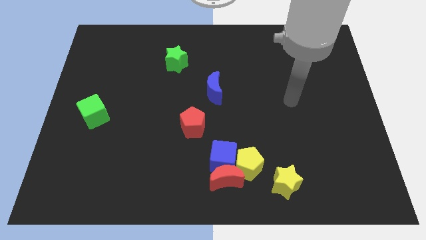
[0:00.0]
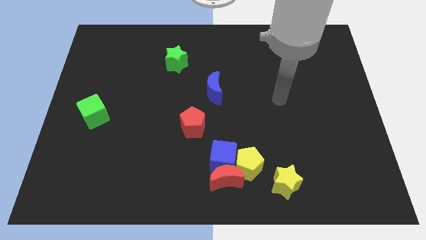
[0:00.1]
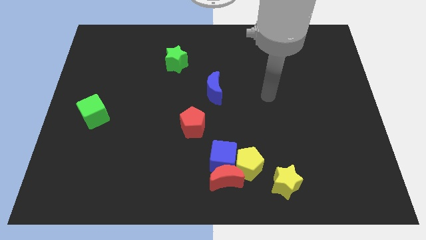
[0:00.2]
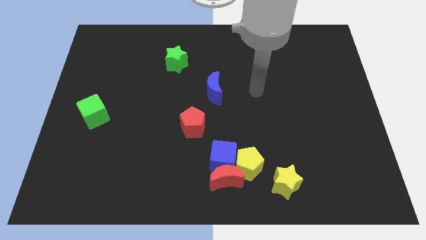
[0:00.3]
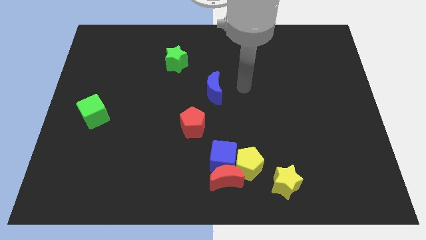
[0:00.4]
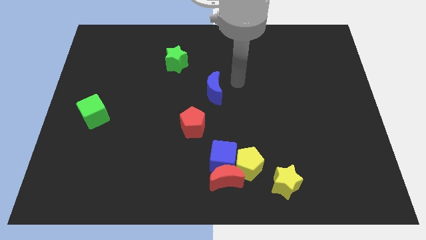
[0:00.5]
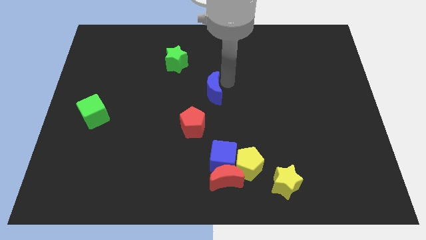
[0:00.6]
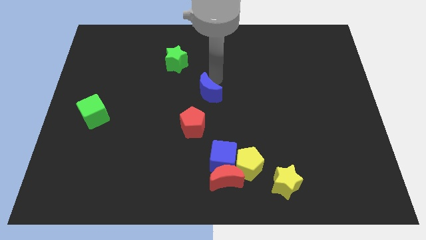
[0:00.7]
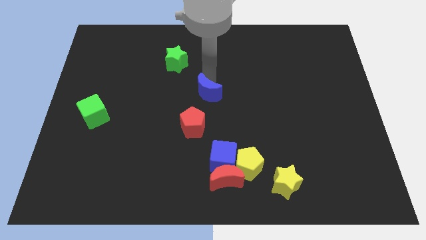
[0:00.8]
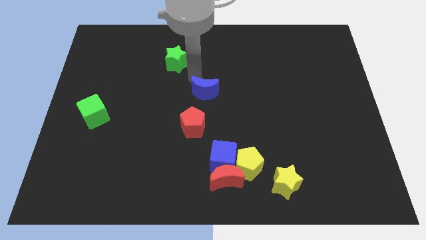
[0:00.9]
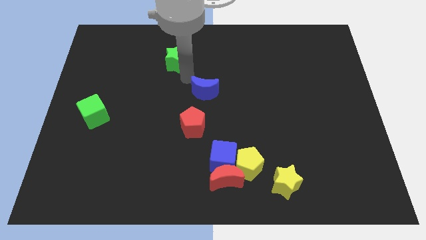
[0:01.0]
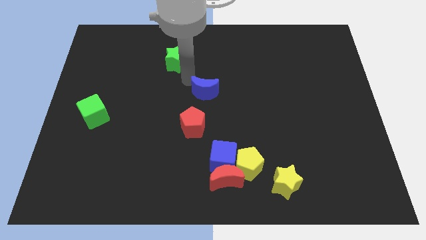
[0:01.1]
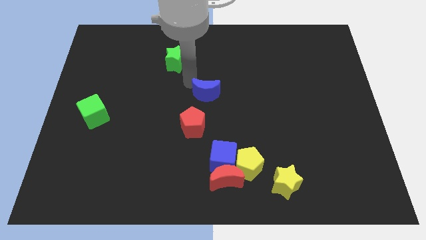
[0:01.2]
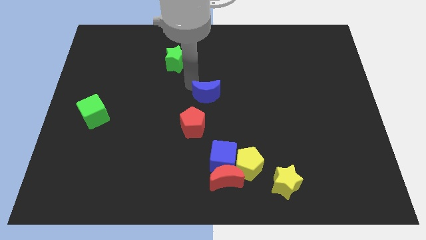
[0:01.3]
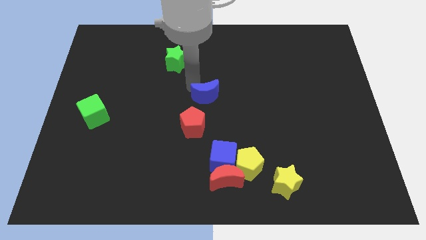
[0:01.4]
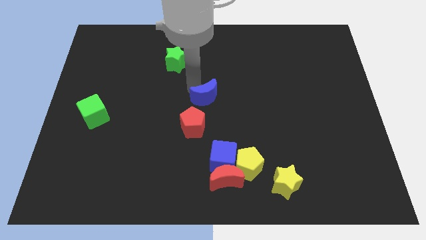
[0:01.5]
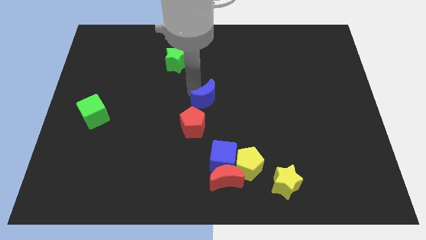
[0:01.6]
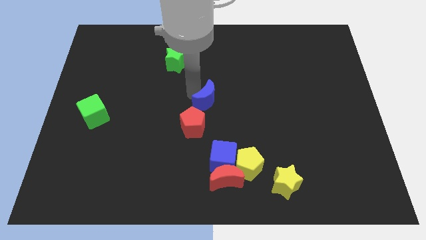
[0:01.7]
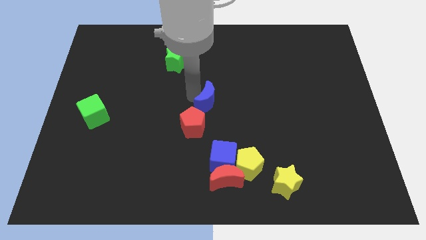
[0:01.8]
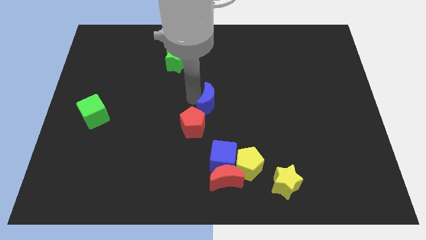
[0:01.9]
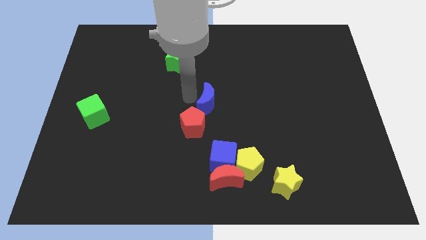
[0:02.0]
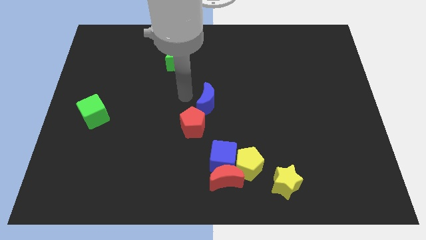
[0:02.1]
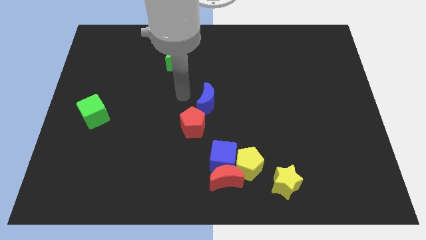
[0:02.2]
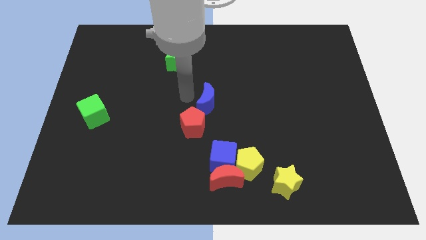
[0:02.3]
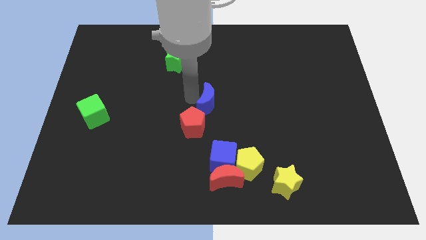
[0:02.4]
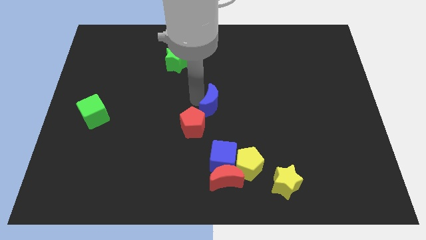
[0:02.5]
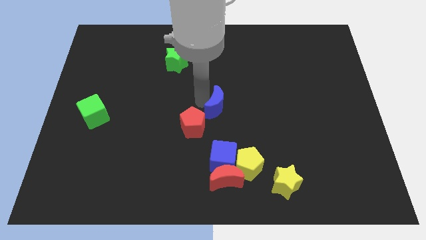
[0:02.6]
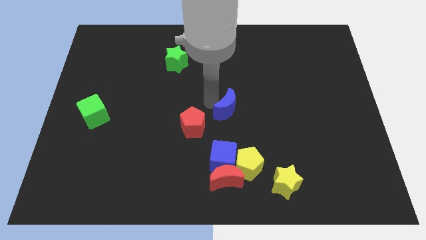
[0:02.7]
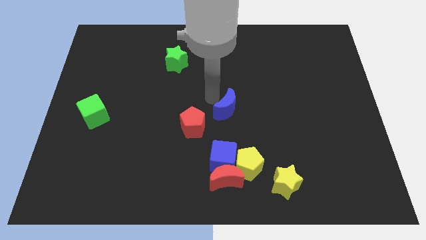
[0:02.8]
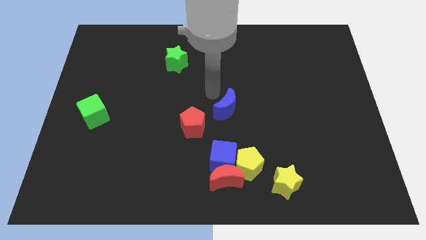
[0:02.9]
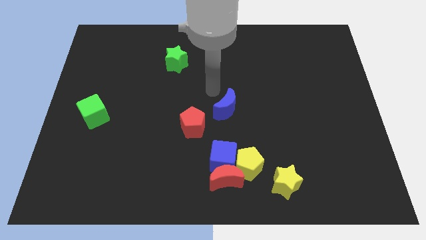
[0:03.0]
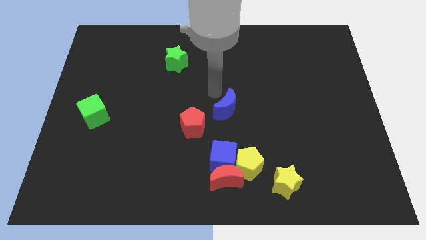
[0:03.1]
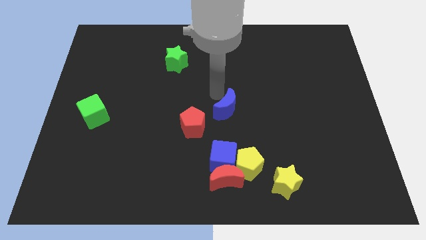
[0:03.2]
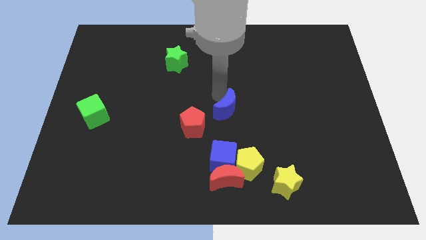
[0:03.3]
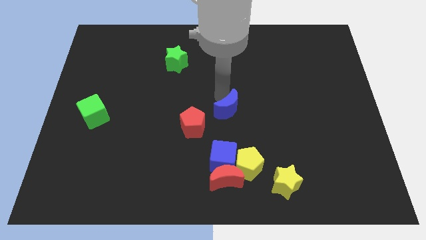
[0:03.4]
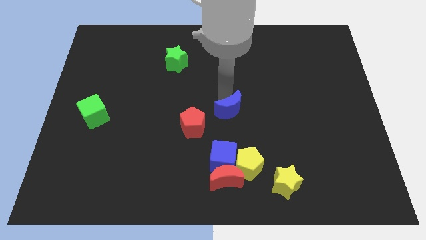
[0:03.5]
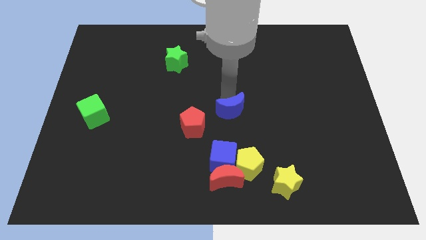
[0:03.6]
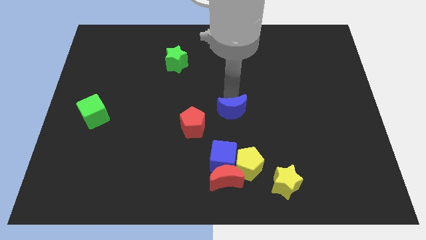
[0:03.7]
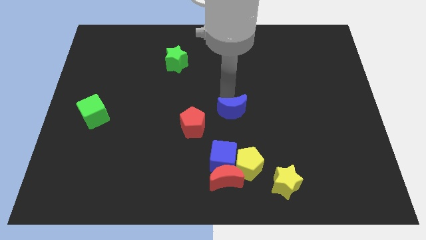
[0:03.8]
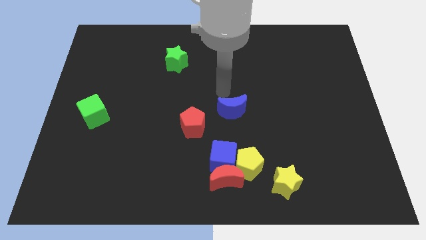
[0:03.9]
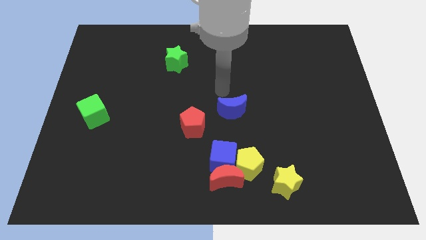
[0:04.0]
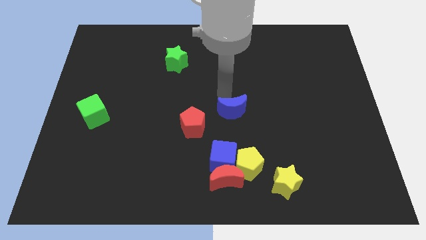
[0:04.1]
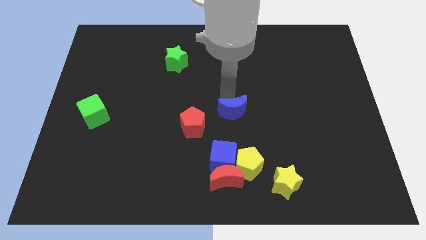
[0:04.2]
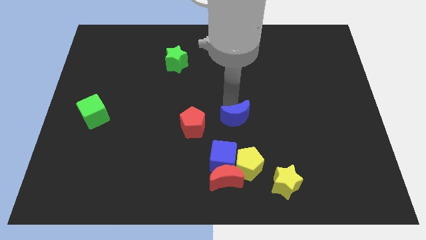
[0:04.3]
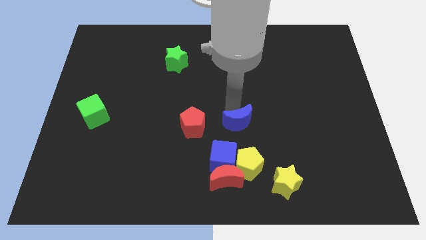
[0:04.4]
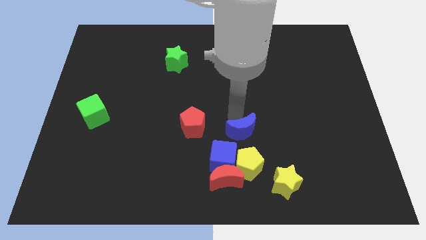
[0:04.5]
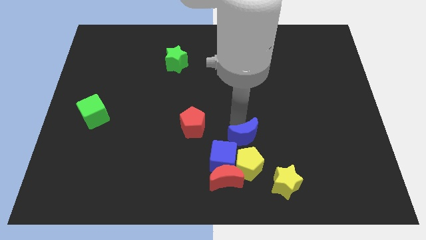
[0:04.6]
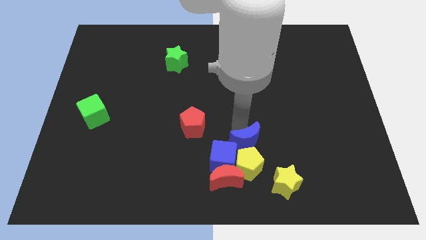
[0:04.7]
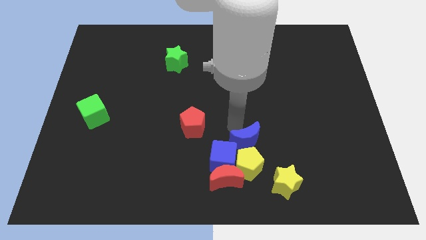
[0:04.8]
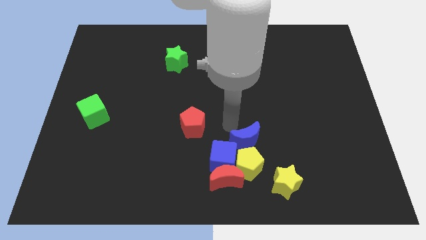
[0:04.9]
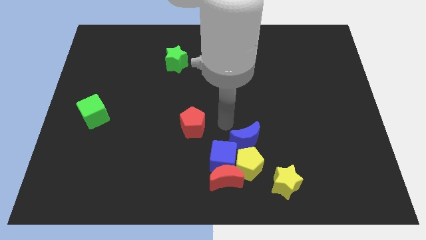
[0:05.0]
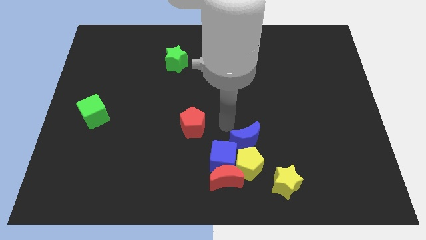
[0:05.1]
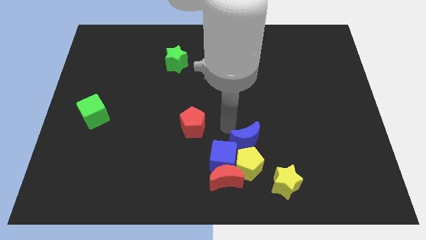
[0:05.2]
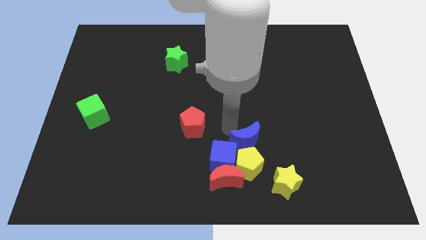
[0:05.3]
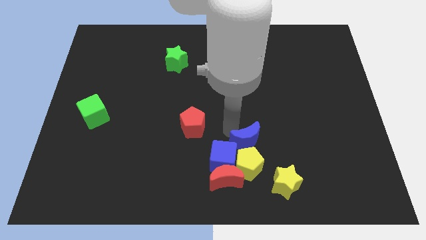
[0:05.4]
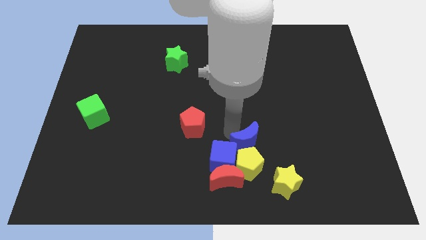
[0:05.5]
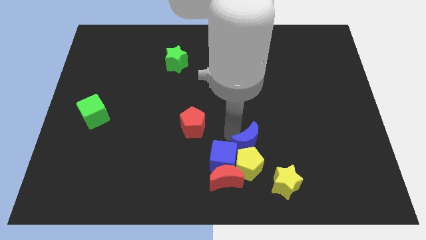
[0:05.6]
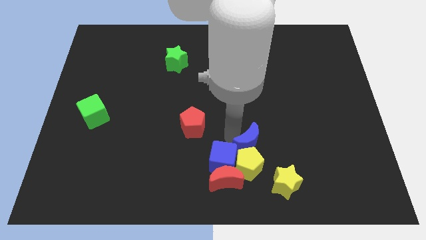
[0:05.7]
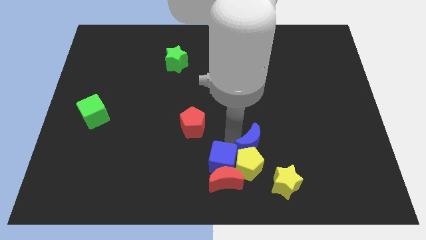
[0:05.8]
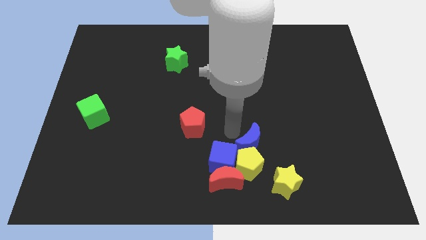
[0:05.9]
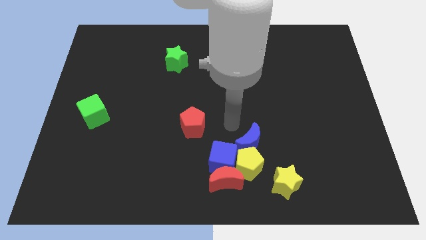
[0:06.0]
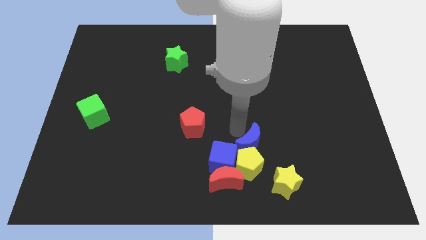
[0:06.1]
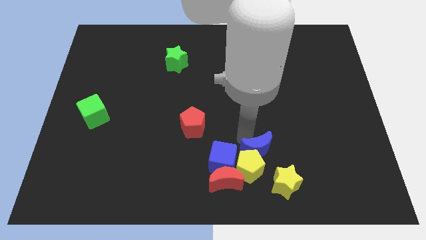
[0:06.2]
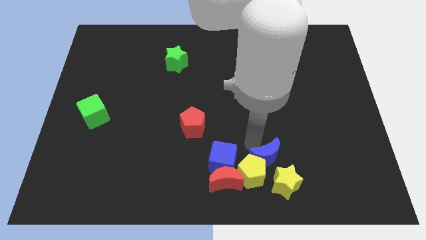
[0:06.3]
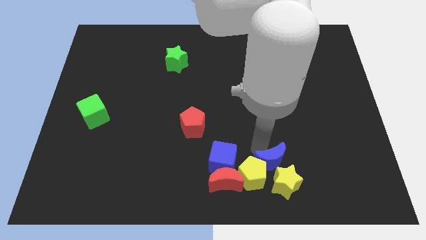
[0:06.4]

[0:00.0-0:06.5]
slide the blue moon next to the yellow star

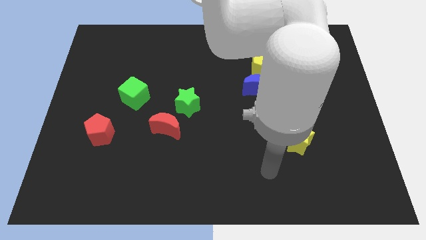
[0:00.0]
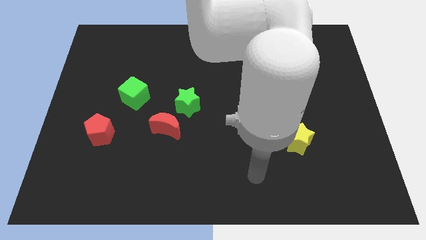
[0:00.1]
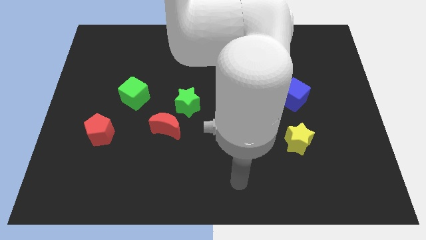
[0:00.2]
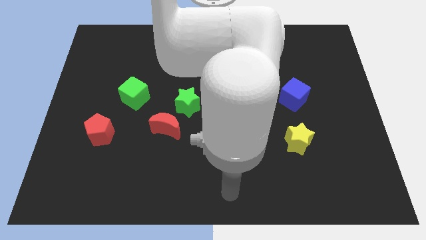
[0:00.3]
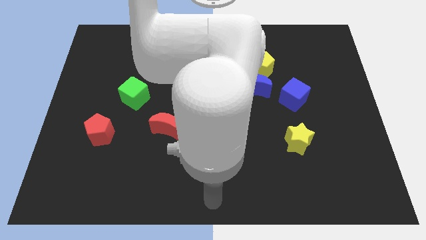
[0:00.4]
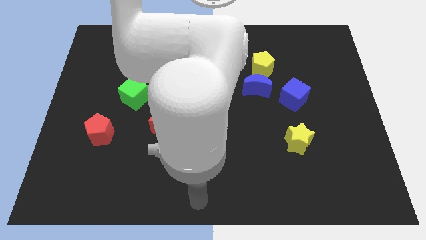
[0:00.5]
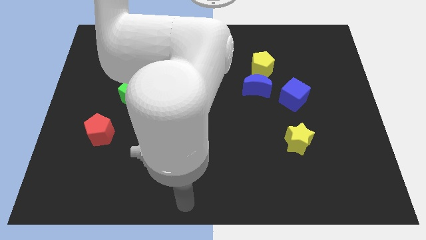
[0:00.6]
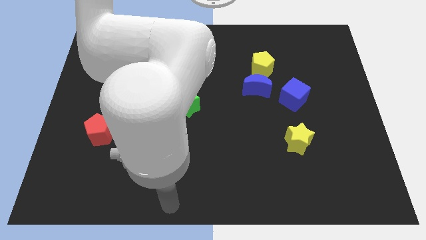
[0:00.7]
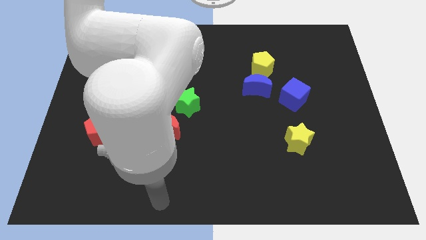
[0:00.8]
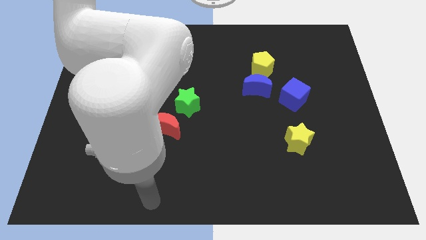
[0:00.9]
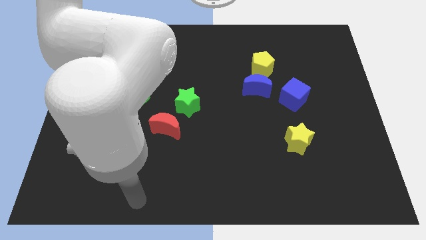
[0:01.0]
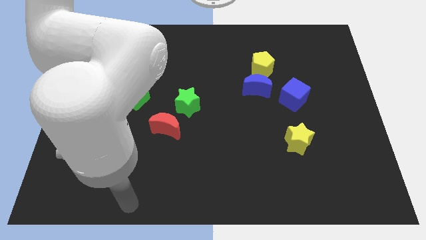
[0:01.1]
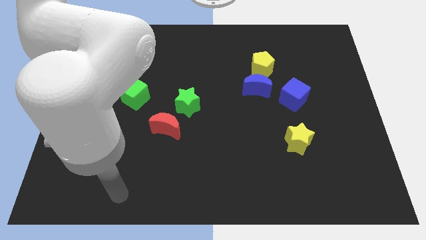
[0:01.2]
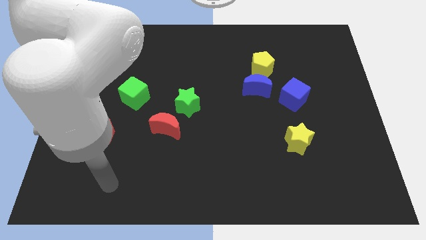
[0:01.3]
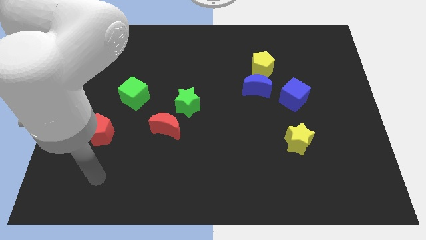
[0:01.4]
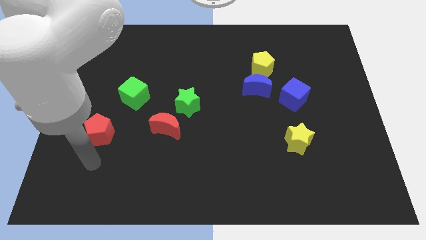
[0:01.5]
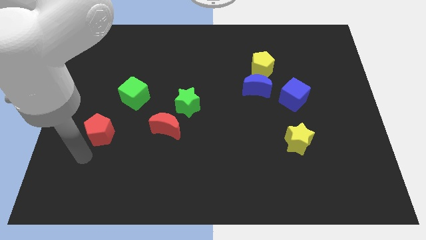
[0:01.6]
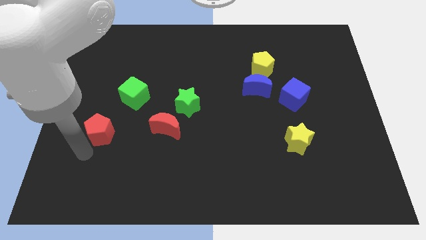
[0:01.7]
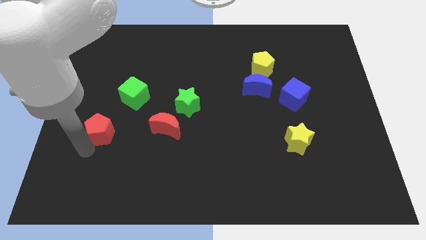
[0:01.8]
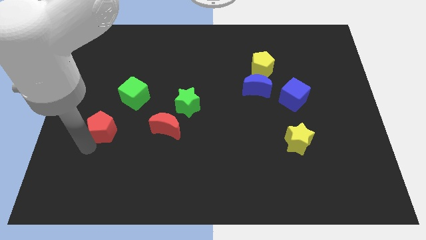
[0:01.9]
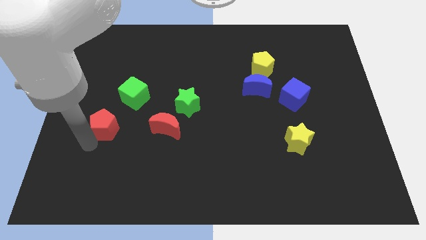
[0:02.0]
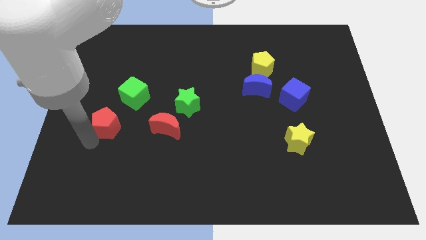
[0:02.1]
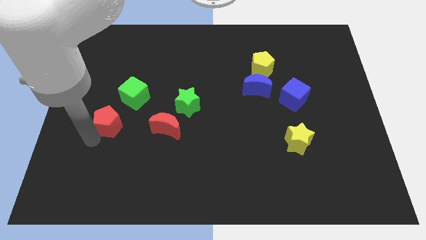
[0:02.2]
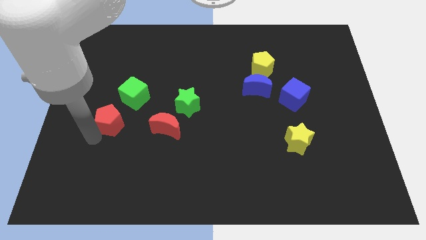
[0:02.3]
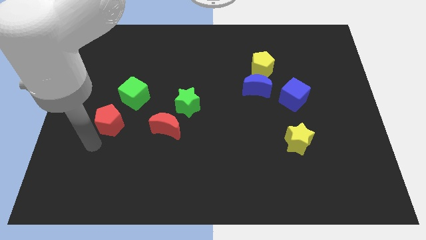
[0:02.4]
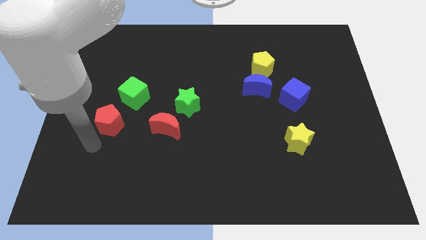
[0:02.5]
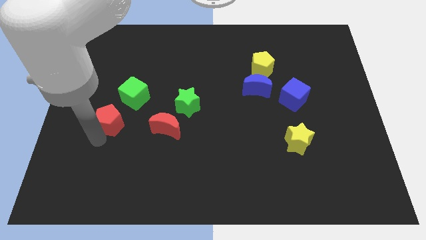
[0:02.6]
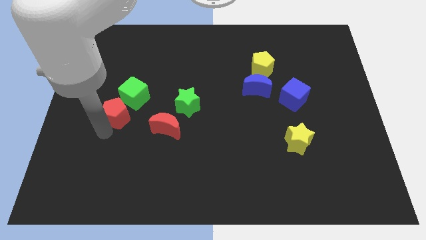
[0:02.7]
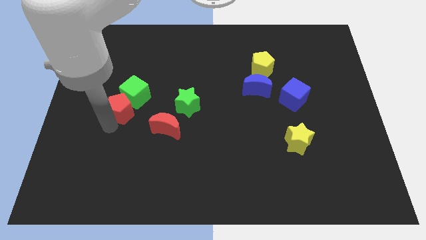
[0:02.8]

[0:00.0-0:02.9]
push the red pentagon to the green cube
